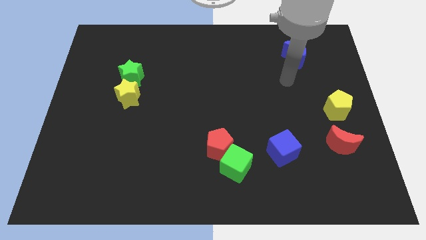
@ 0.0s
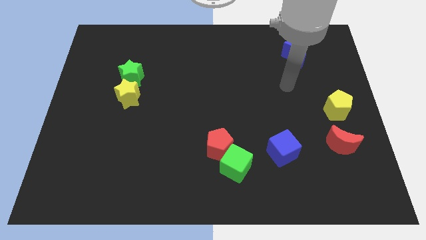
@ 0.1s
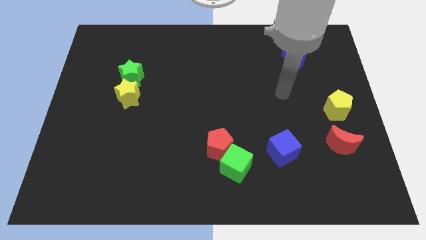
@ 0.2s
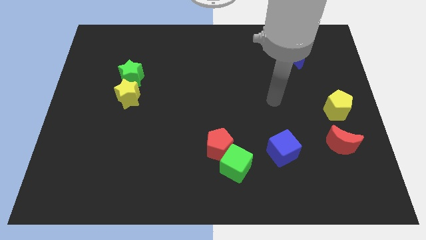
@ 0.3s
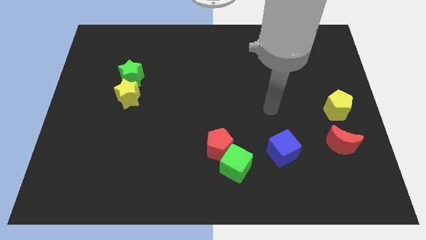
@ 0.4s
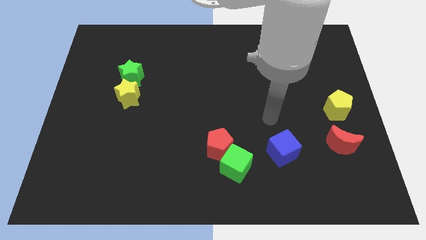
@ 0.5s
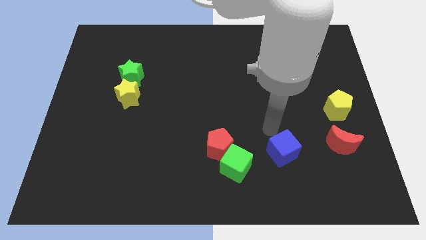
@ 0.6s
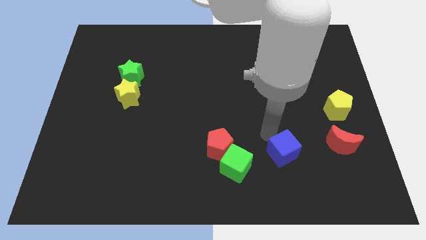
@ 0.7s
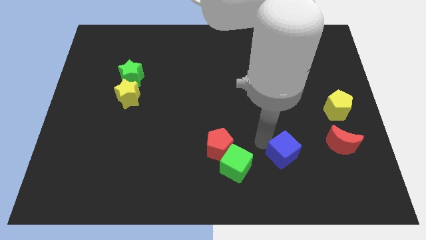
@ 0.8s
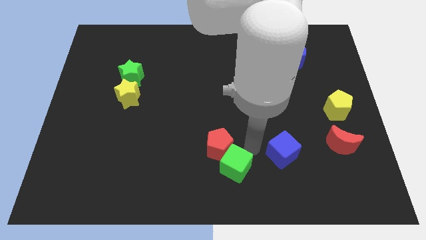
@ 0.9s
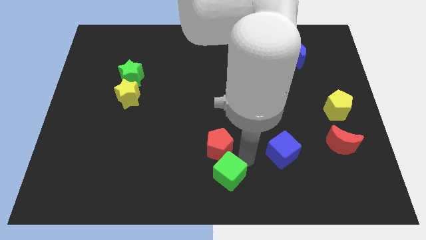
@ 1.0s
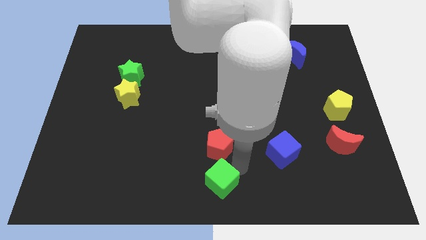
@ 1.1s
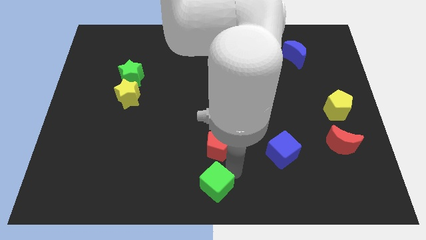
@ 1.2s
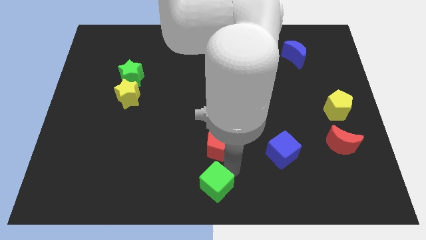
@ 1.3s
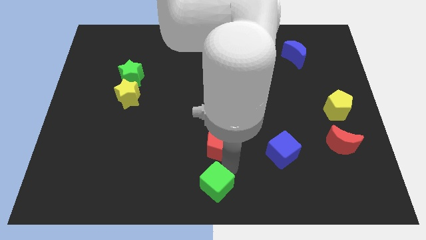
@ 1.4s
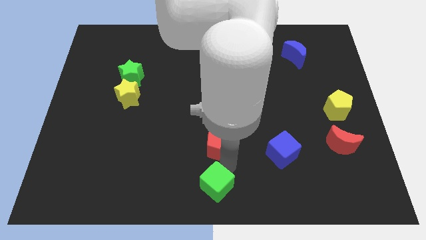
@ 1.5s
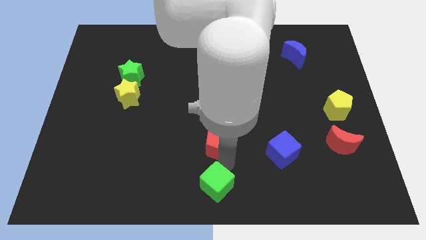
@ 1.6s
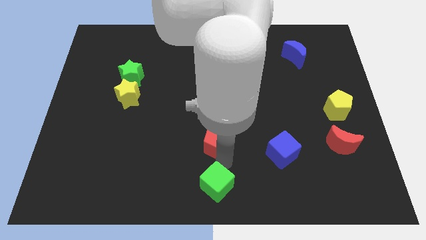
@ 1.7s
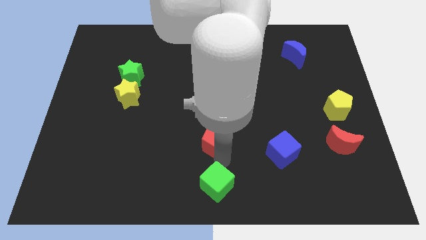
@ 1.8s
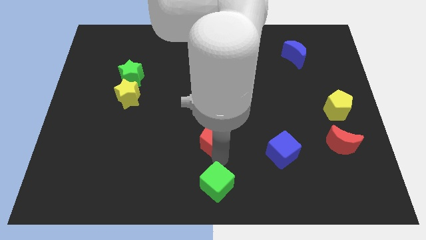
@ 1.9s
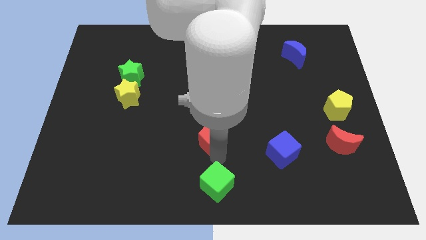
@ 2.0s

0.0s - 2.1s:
separate the red pentagon from the green cube

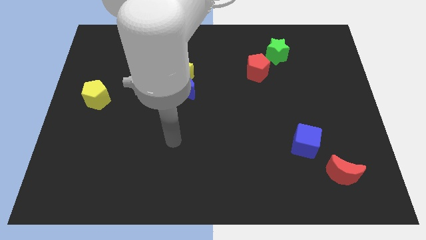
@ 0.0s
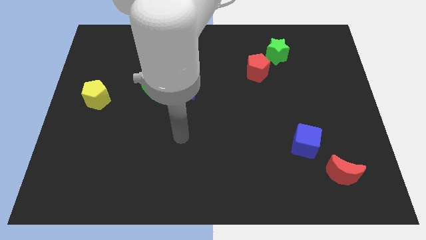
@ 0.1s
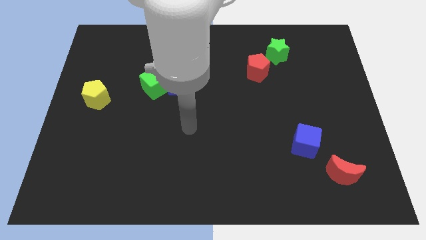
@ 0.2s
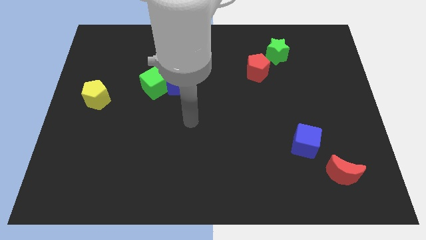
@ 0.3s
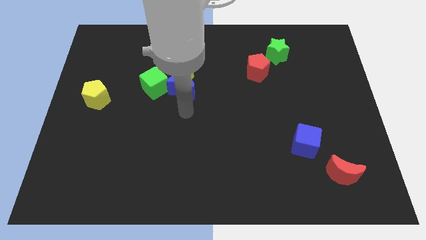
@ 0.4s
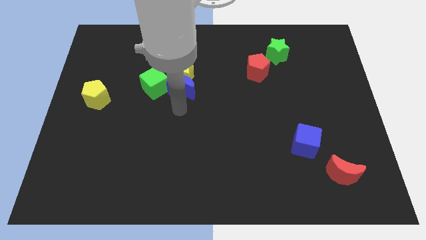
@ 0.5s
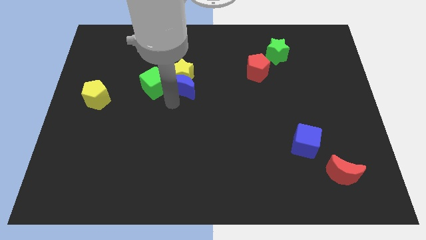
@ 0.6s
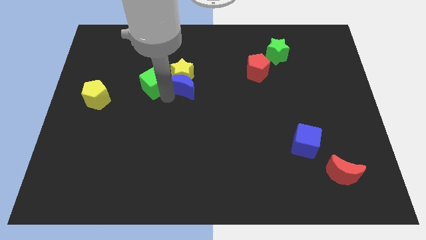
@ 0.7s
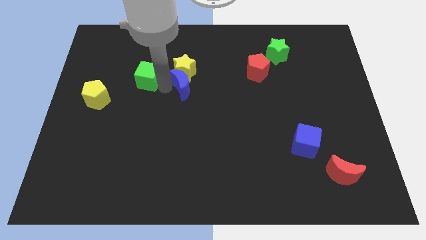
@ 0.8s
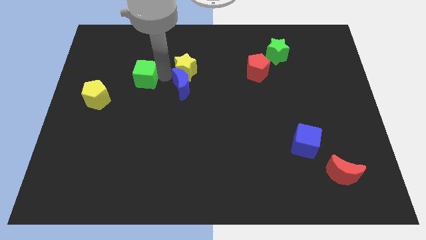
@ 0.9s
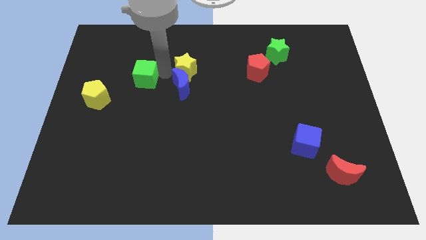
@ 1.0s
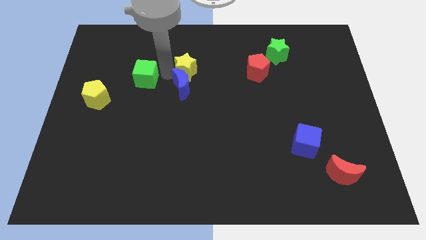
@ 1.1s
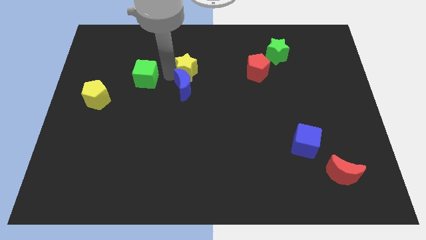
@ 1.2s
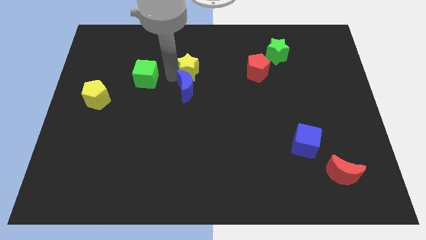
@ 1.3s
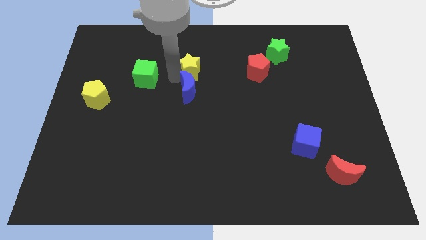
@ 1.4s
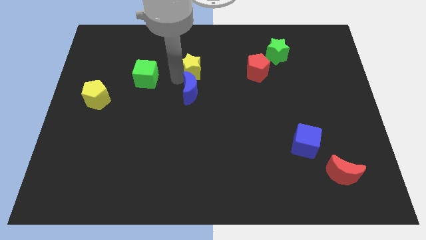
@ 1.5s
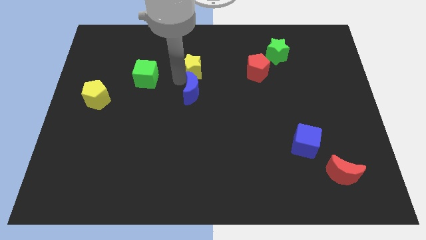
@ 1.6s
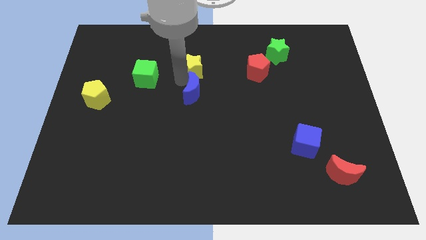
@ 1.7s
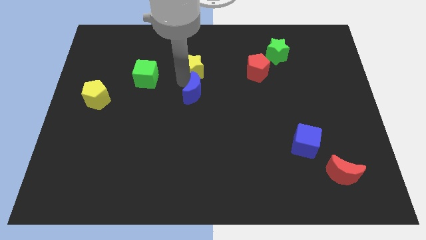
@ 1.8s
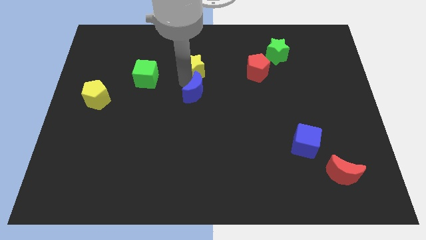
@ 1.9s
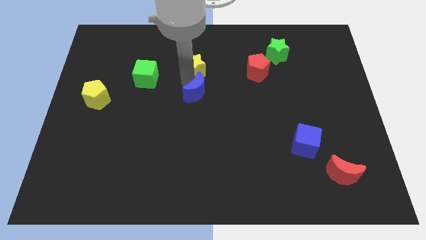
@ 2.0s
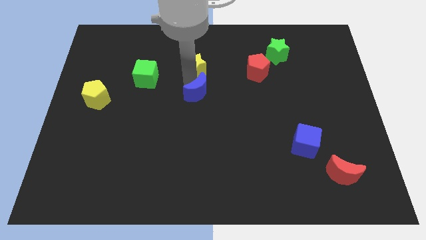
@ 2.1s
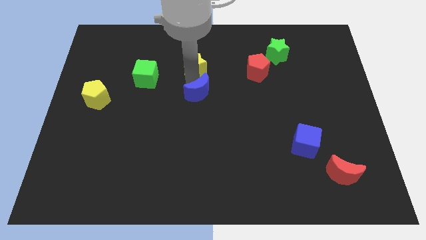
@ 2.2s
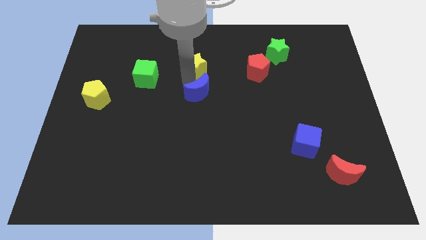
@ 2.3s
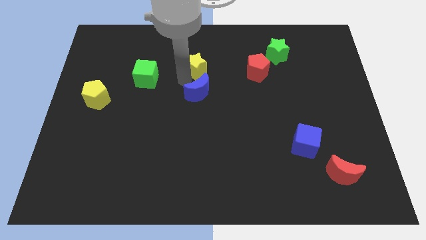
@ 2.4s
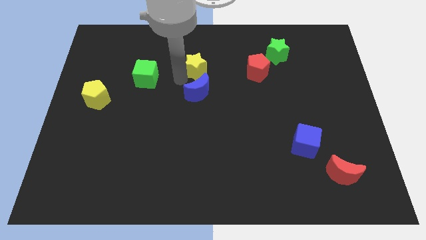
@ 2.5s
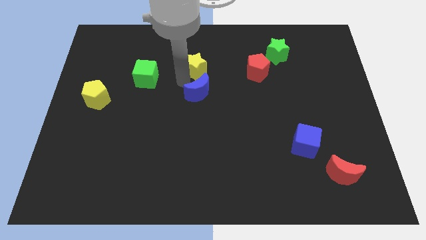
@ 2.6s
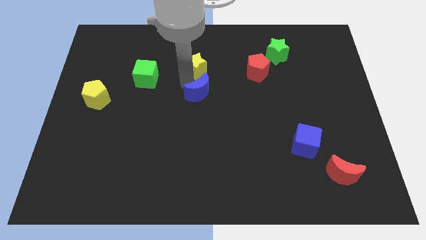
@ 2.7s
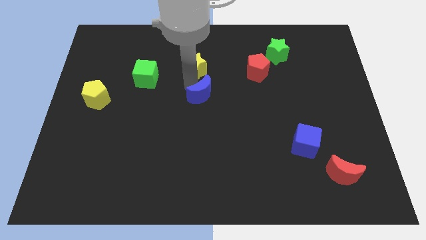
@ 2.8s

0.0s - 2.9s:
pull the blue moon apart from the yellow star and green cube

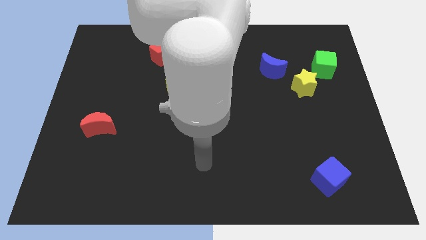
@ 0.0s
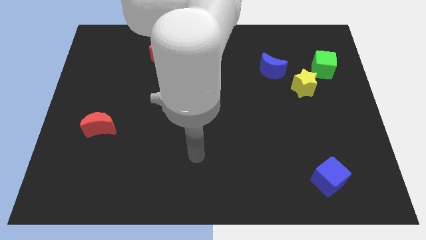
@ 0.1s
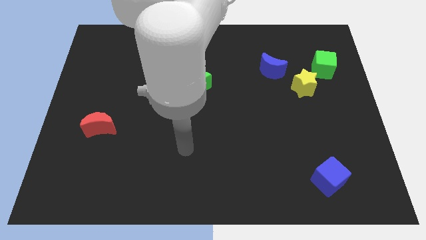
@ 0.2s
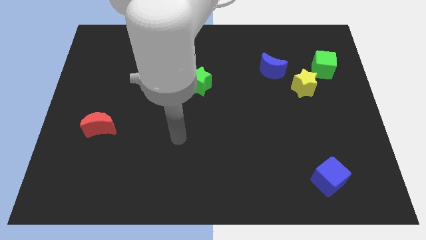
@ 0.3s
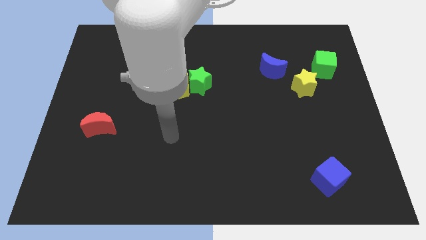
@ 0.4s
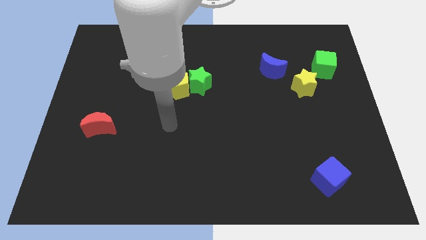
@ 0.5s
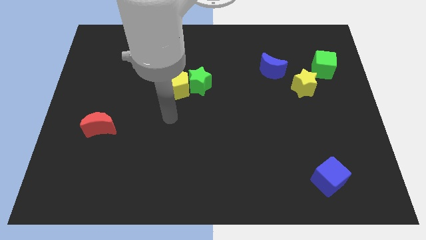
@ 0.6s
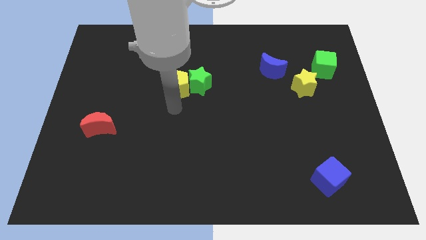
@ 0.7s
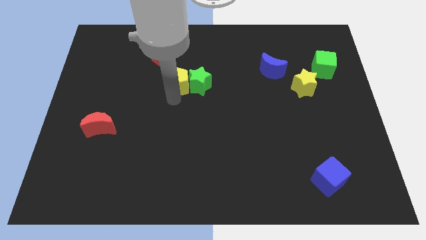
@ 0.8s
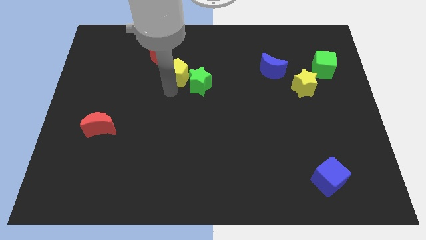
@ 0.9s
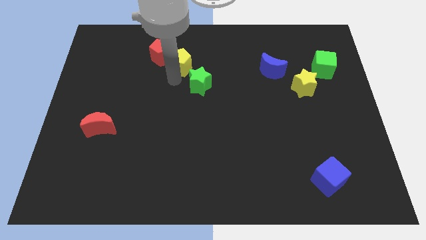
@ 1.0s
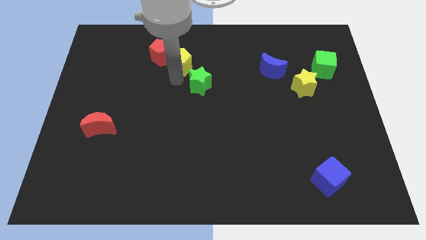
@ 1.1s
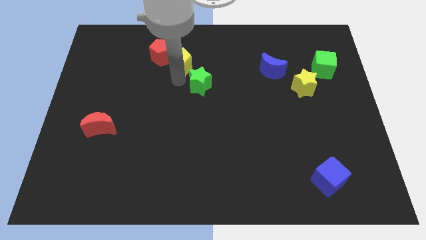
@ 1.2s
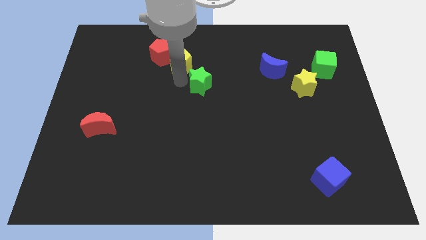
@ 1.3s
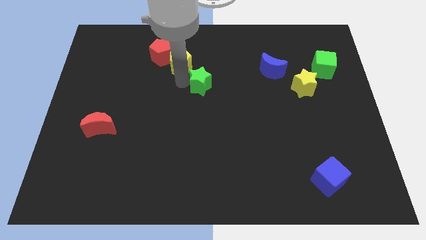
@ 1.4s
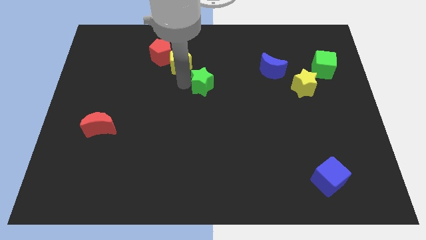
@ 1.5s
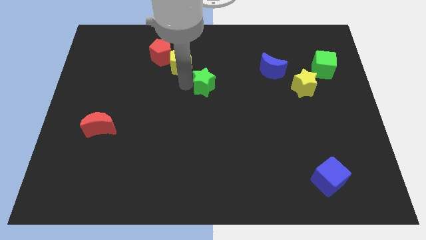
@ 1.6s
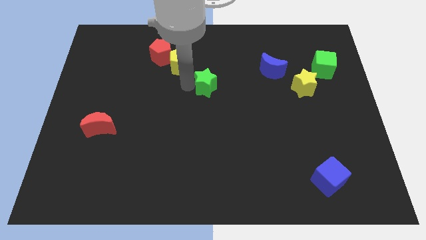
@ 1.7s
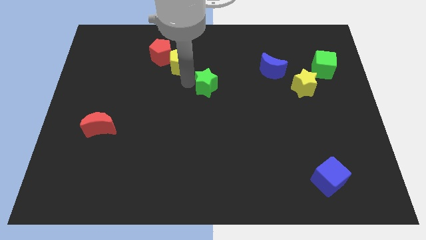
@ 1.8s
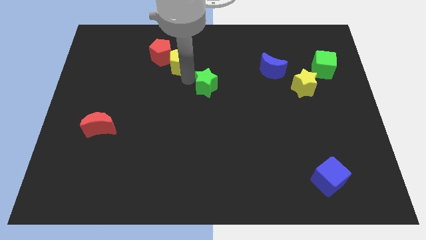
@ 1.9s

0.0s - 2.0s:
move the green star away from the yellow pentagon

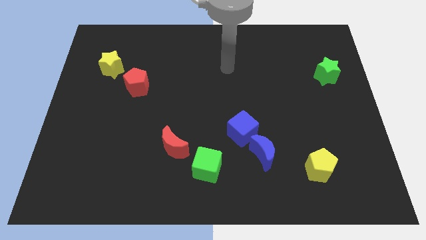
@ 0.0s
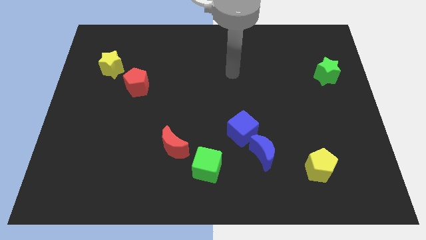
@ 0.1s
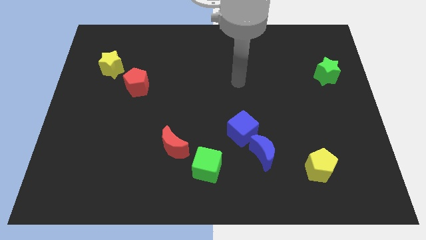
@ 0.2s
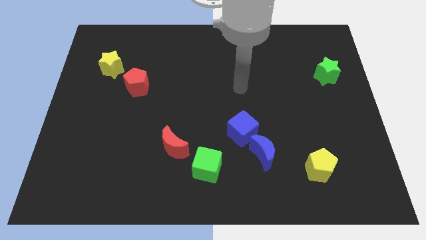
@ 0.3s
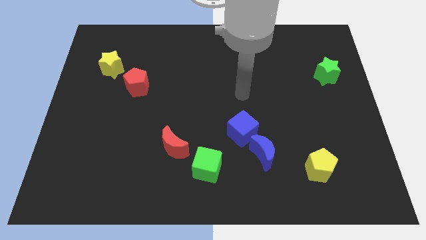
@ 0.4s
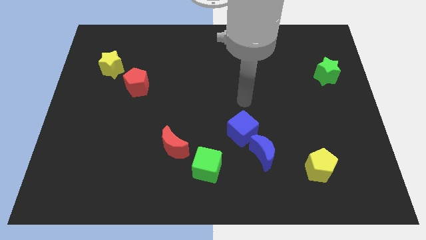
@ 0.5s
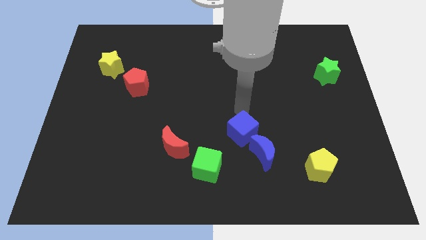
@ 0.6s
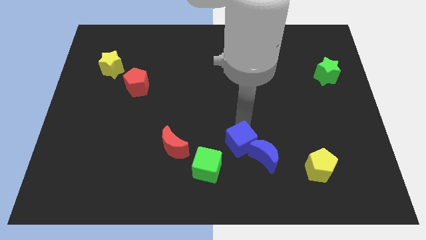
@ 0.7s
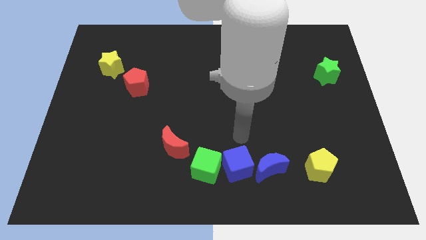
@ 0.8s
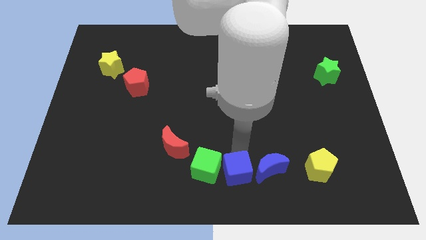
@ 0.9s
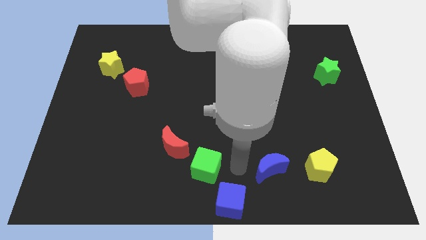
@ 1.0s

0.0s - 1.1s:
pull the blue moon apart from the blue cube

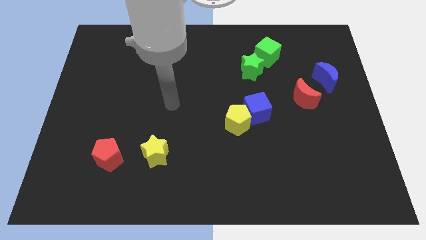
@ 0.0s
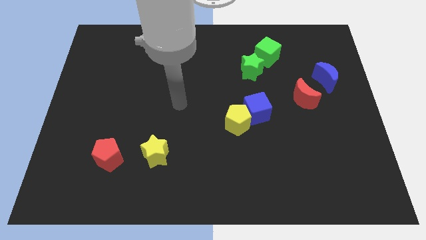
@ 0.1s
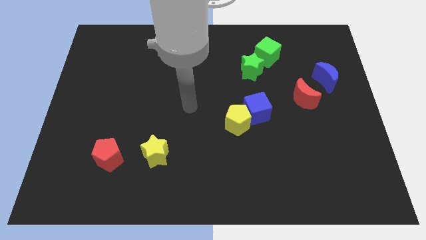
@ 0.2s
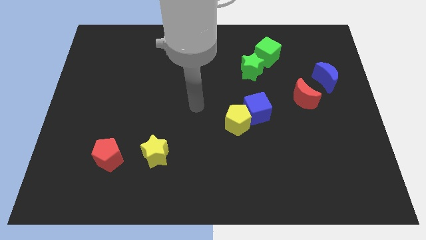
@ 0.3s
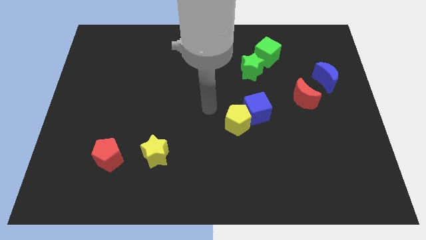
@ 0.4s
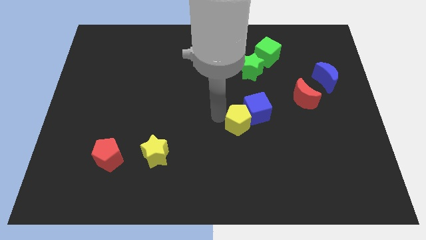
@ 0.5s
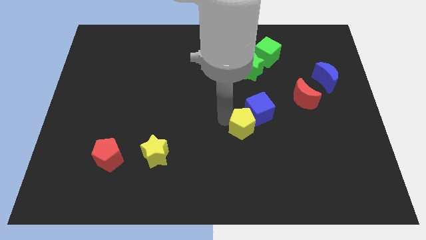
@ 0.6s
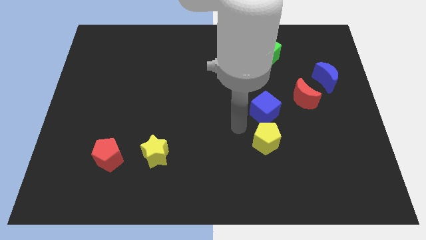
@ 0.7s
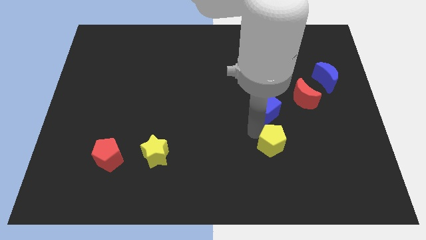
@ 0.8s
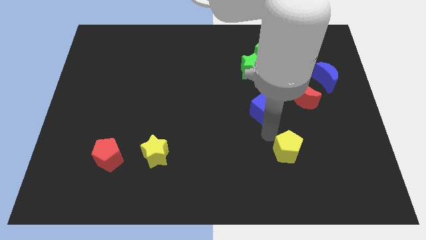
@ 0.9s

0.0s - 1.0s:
separate the blue cube from the yellow pentagon
